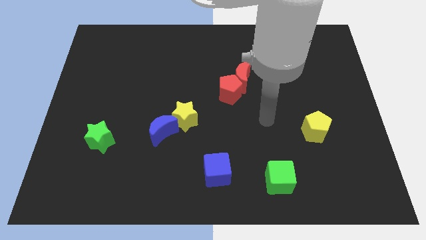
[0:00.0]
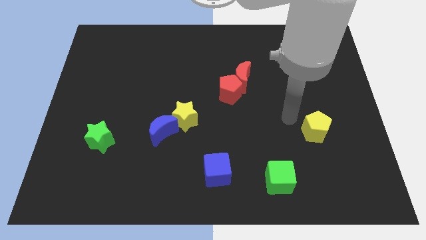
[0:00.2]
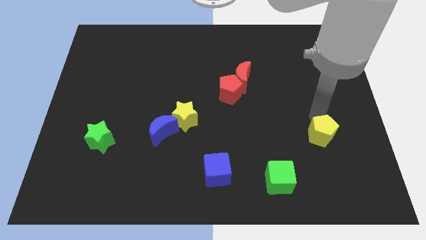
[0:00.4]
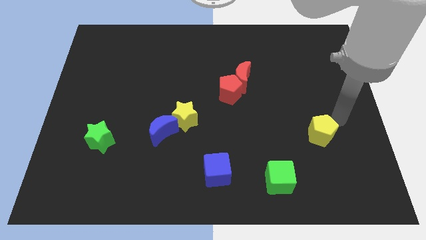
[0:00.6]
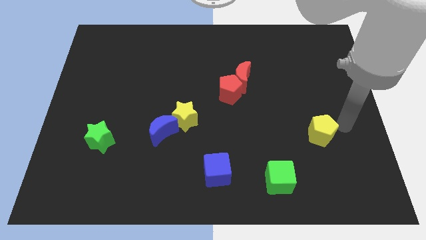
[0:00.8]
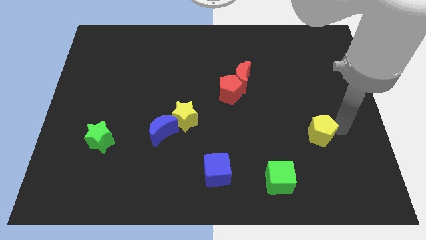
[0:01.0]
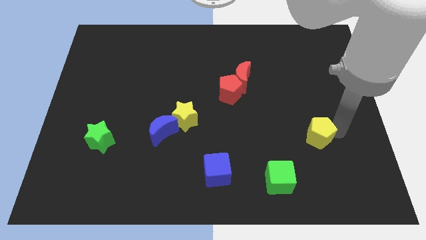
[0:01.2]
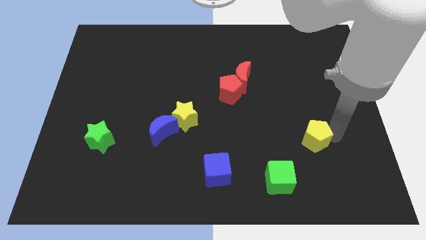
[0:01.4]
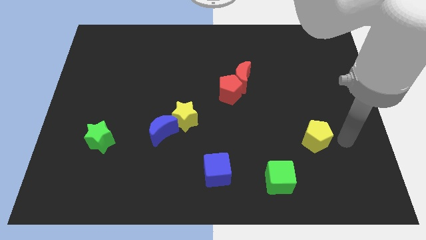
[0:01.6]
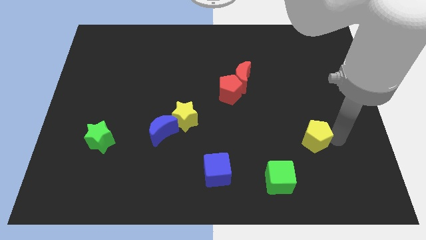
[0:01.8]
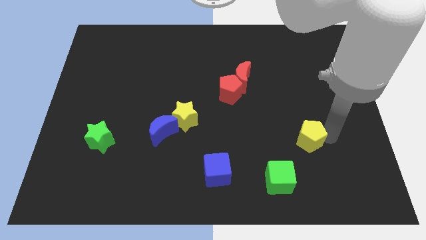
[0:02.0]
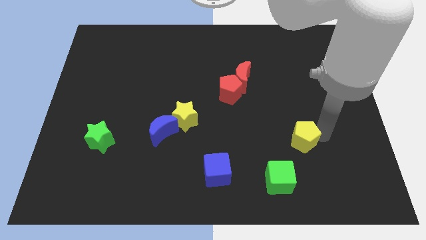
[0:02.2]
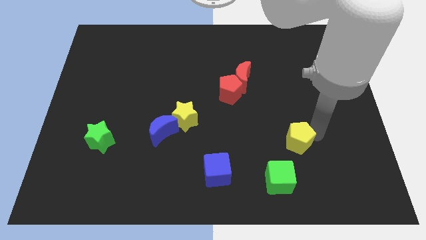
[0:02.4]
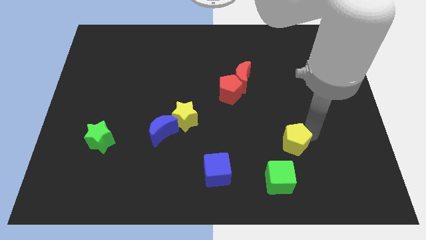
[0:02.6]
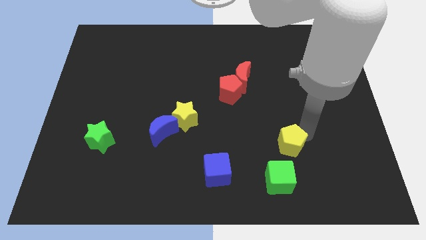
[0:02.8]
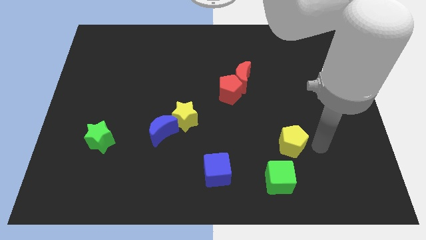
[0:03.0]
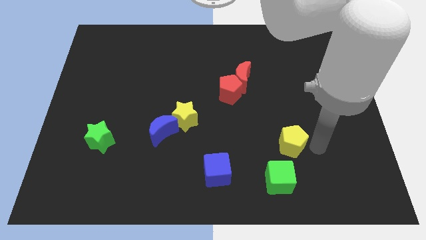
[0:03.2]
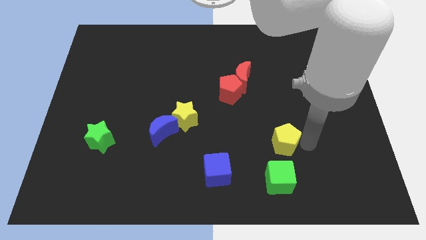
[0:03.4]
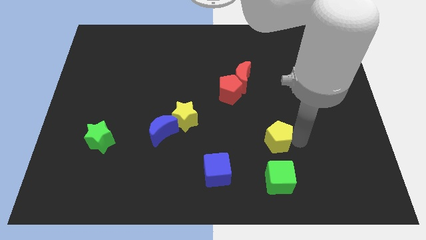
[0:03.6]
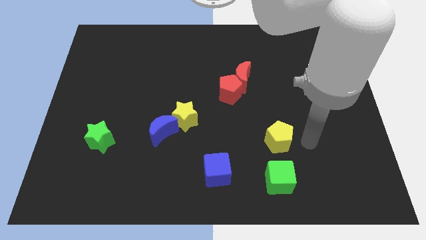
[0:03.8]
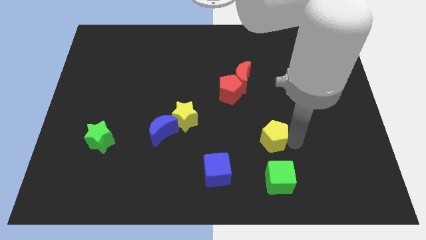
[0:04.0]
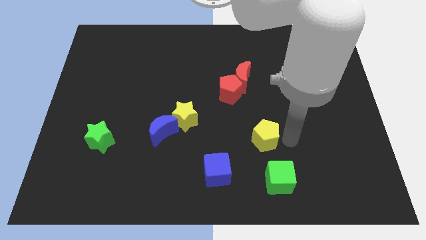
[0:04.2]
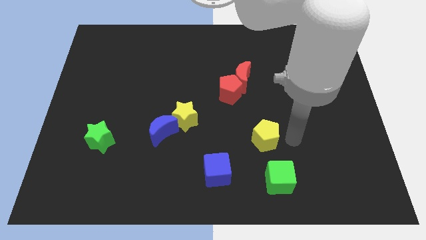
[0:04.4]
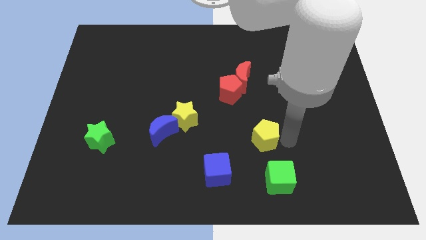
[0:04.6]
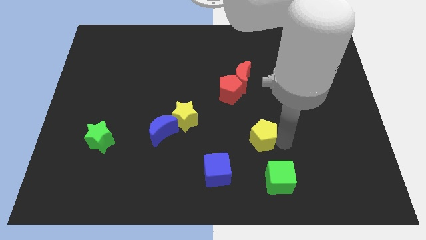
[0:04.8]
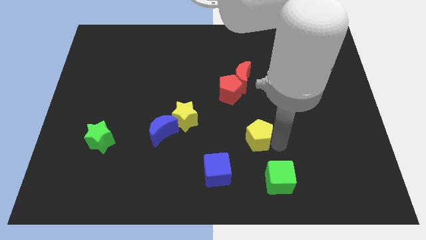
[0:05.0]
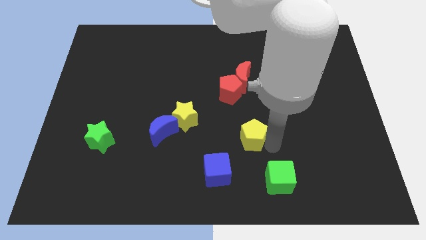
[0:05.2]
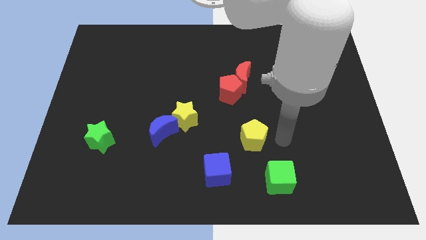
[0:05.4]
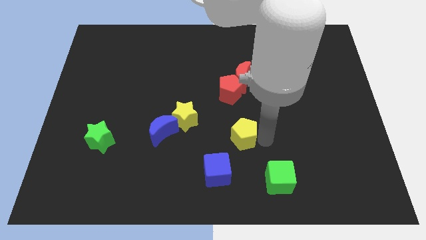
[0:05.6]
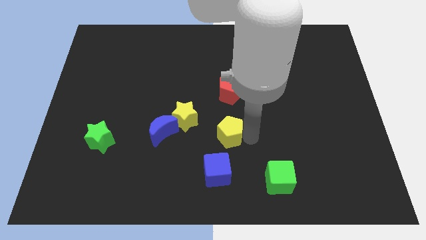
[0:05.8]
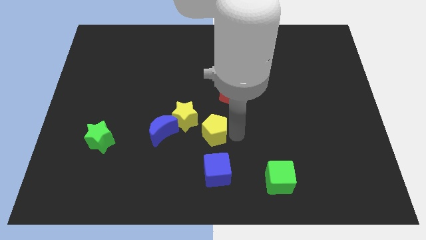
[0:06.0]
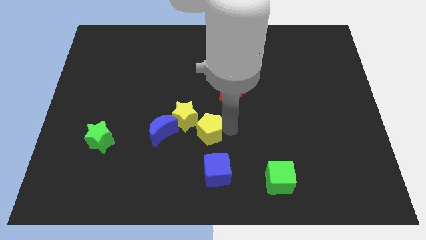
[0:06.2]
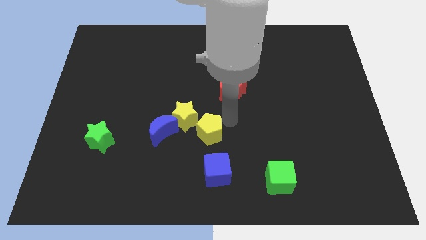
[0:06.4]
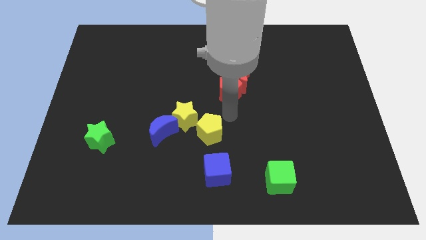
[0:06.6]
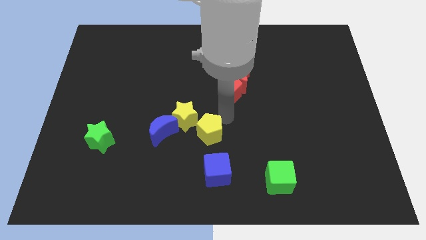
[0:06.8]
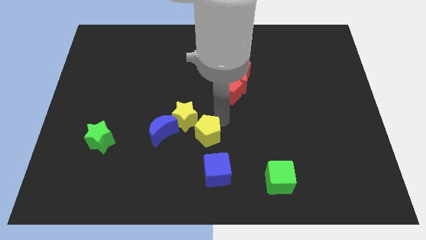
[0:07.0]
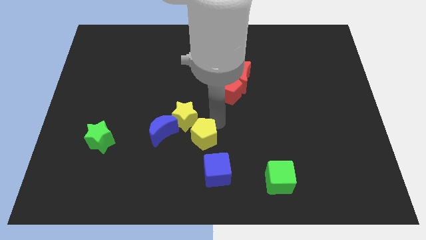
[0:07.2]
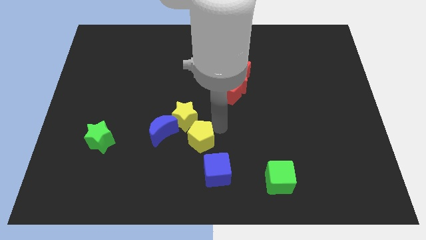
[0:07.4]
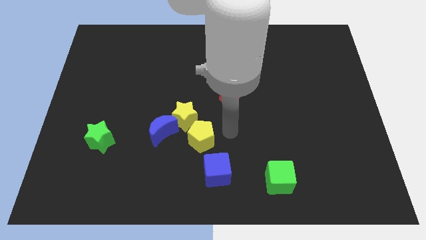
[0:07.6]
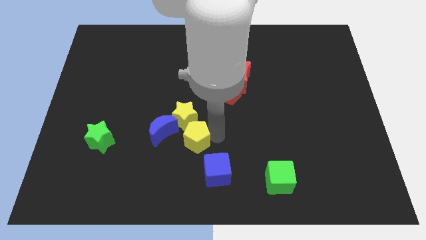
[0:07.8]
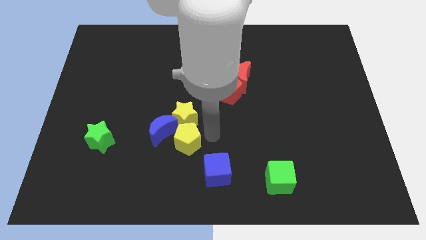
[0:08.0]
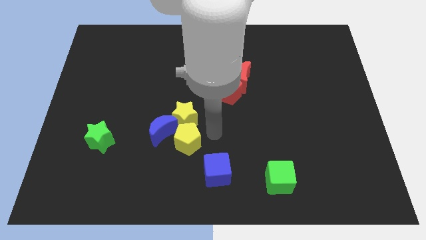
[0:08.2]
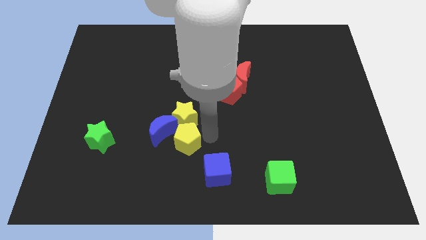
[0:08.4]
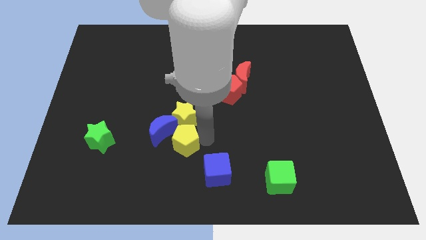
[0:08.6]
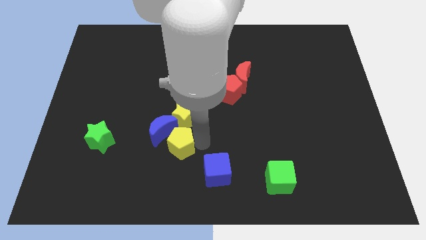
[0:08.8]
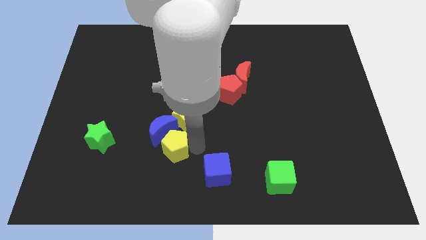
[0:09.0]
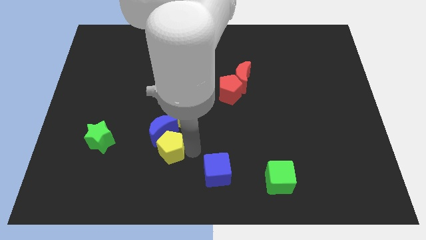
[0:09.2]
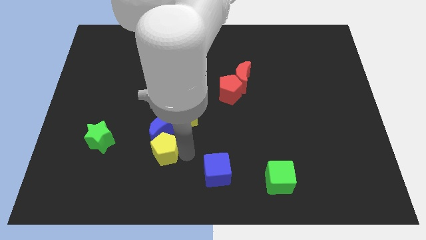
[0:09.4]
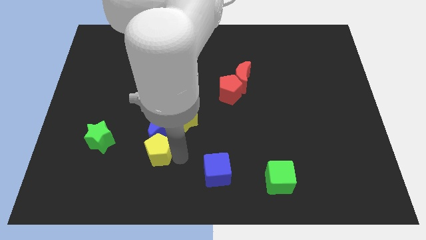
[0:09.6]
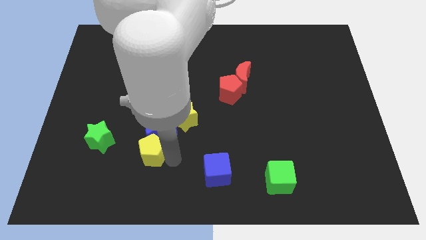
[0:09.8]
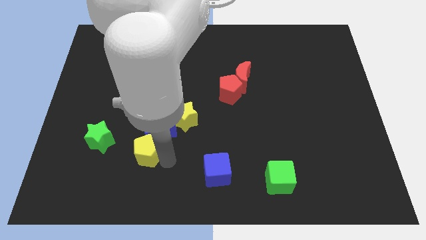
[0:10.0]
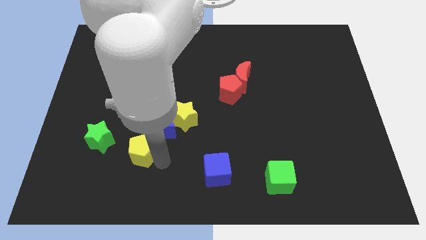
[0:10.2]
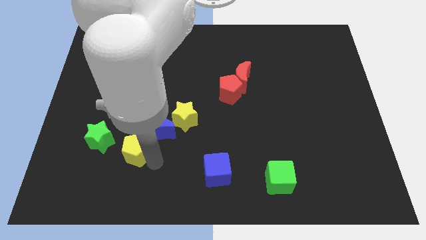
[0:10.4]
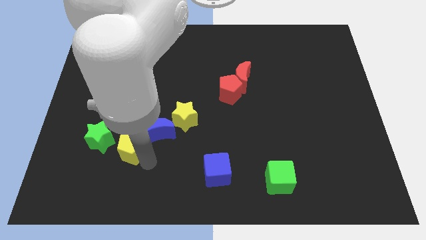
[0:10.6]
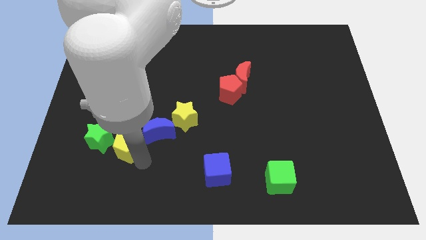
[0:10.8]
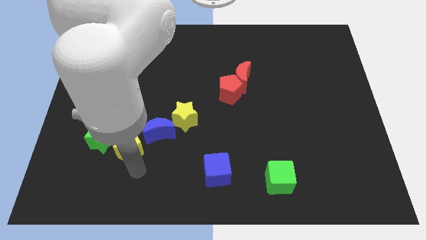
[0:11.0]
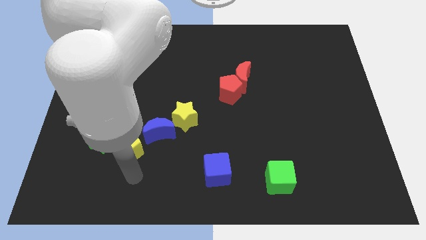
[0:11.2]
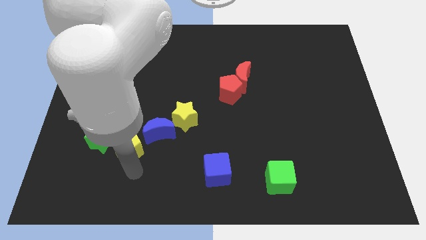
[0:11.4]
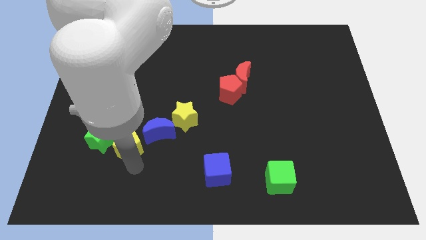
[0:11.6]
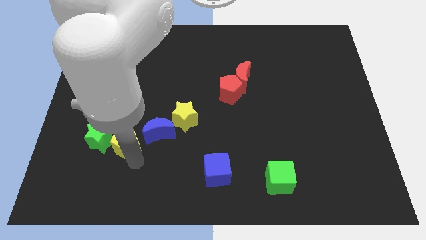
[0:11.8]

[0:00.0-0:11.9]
push the yellow pentagon next to the green star

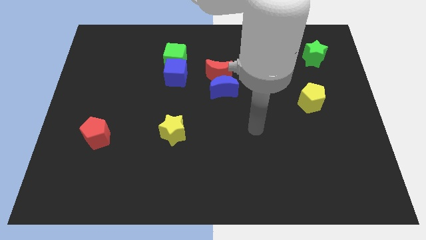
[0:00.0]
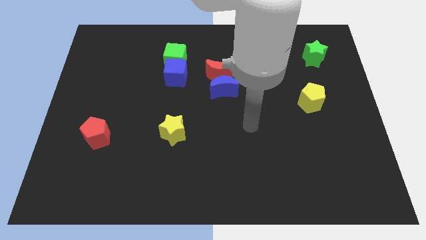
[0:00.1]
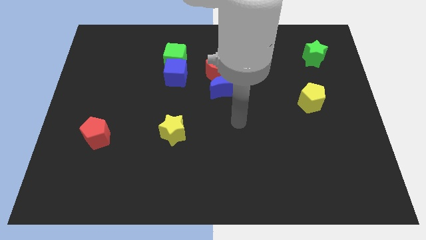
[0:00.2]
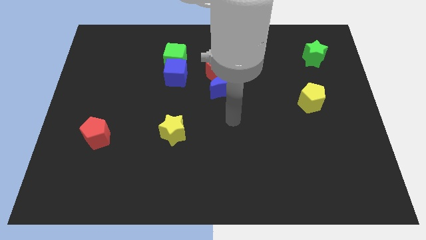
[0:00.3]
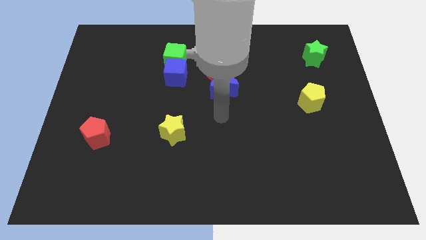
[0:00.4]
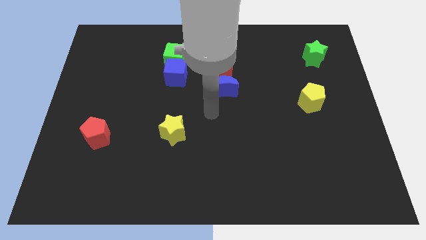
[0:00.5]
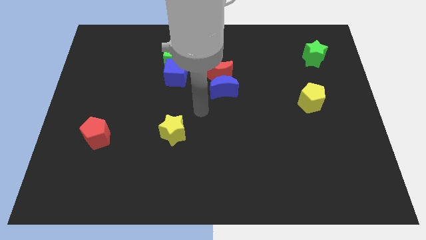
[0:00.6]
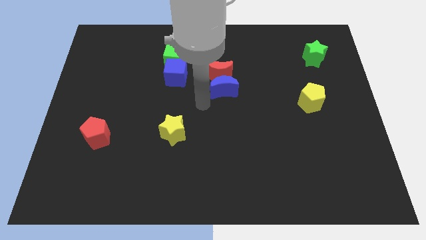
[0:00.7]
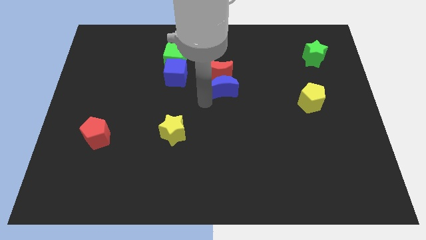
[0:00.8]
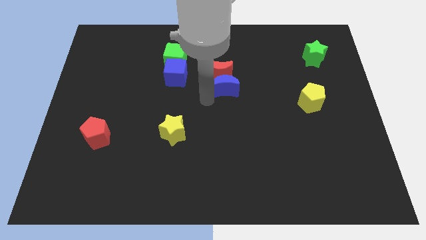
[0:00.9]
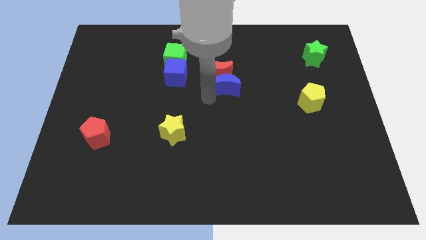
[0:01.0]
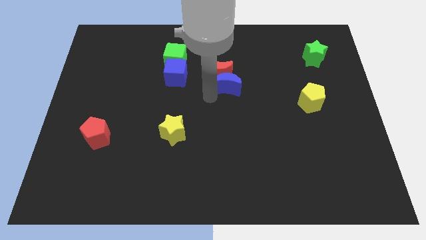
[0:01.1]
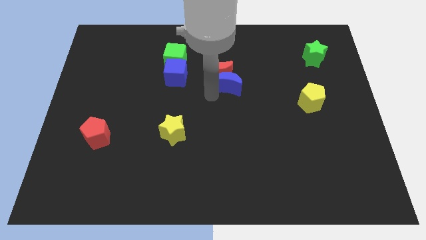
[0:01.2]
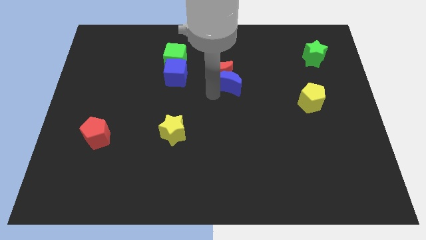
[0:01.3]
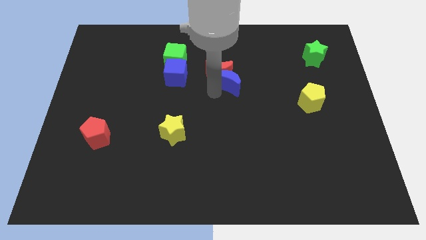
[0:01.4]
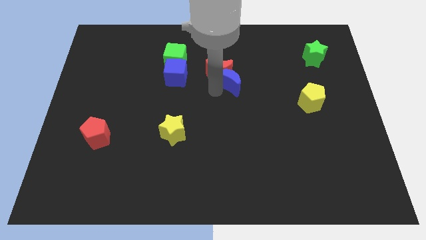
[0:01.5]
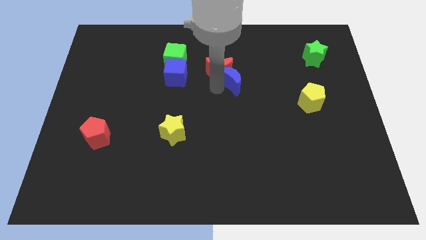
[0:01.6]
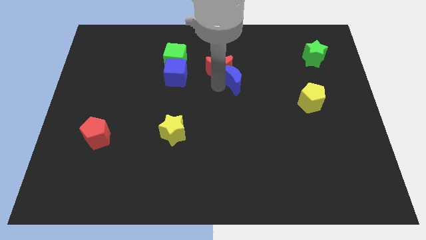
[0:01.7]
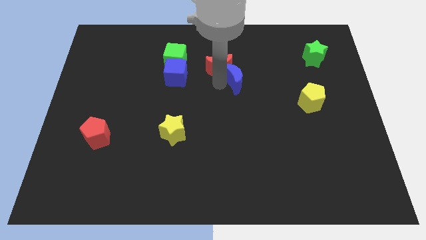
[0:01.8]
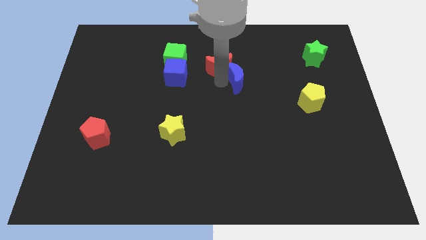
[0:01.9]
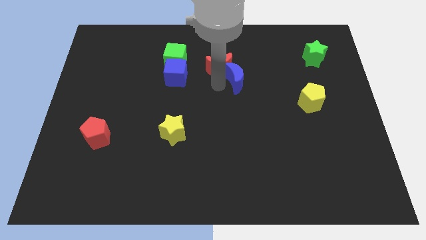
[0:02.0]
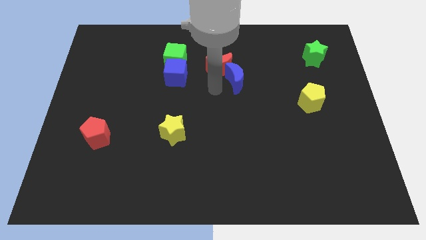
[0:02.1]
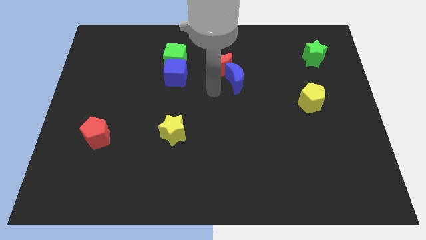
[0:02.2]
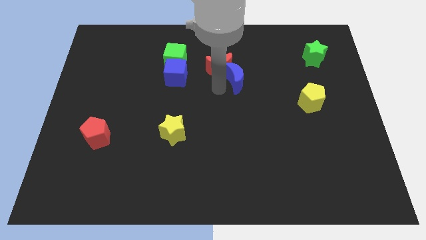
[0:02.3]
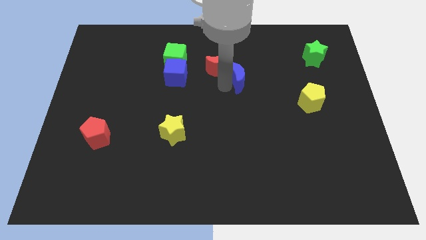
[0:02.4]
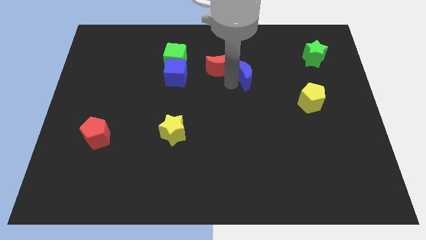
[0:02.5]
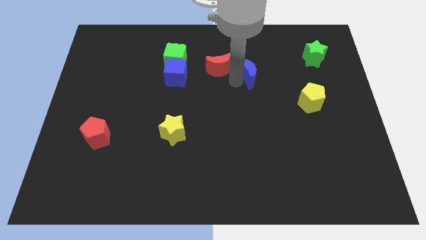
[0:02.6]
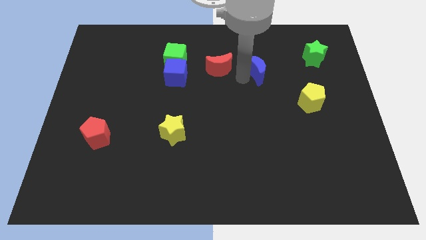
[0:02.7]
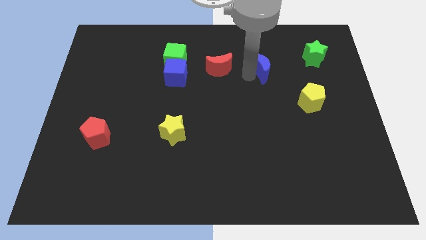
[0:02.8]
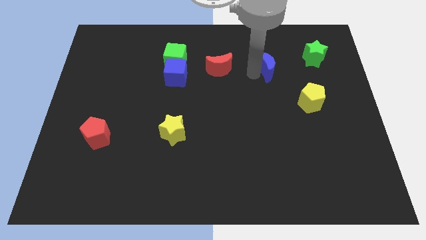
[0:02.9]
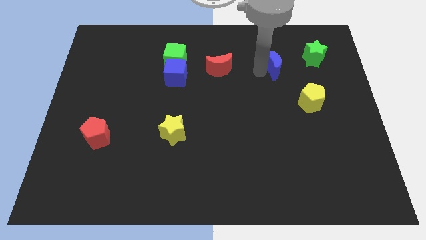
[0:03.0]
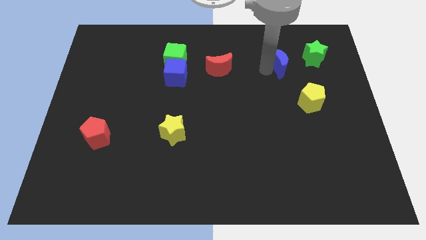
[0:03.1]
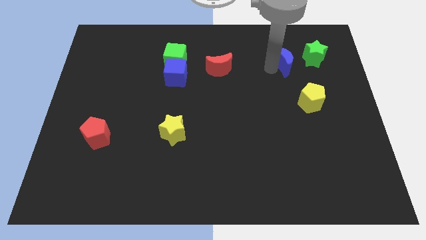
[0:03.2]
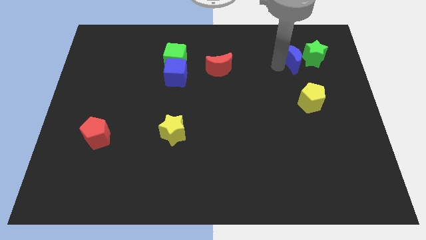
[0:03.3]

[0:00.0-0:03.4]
move the blue moon to the green star
